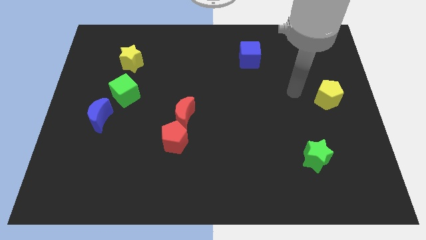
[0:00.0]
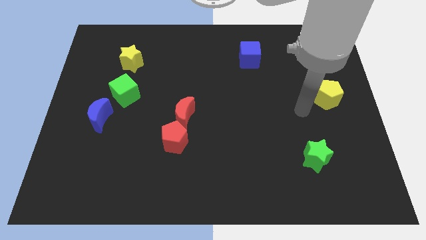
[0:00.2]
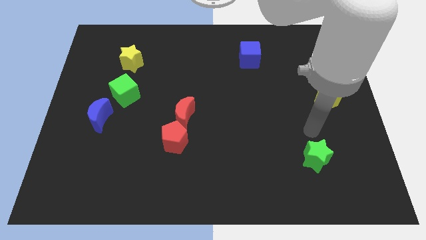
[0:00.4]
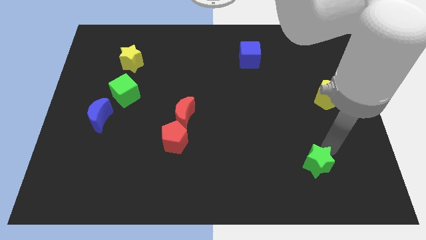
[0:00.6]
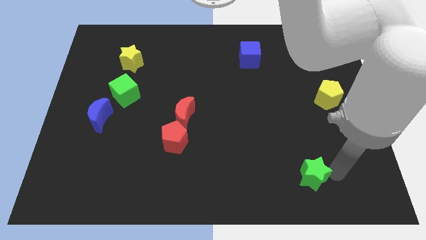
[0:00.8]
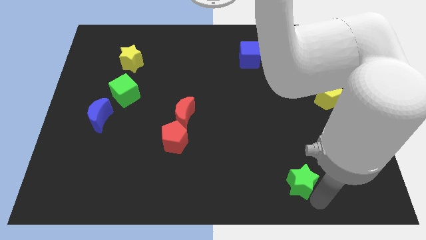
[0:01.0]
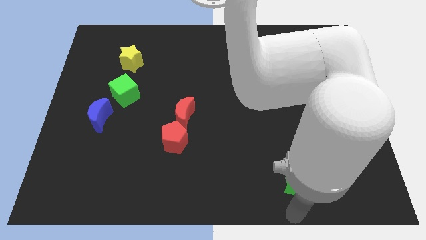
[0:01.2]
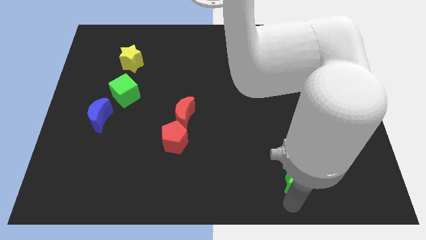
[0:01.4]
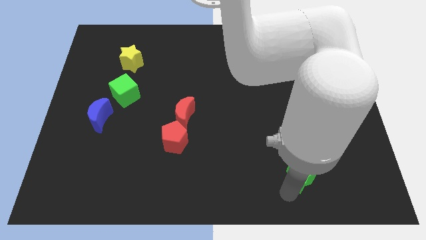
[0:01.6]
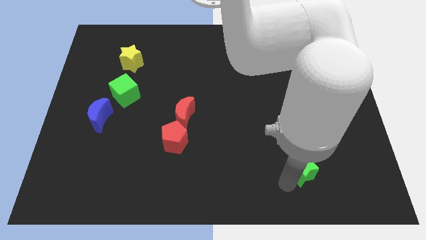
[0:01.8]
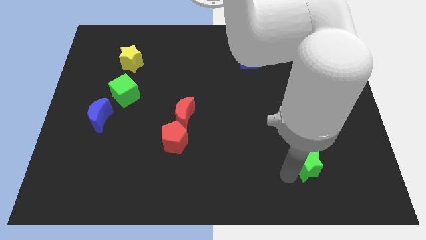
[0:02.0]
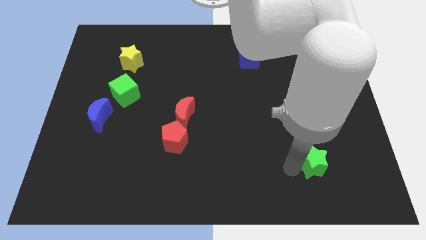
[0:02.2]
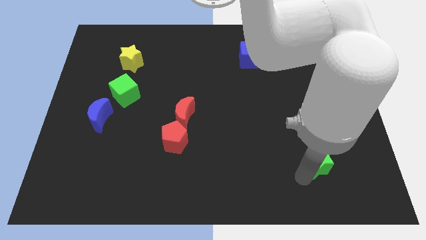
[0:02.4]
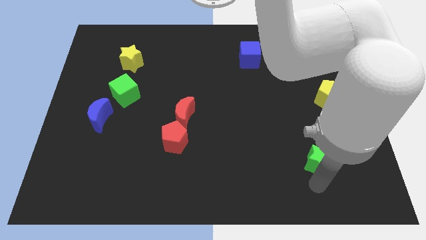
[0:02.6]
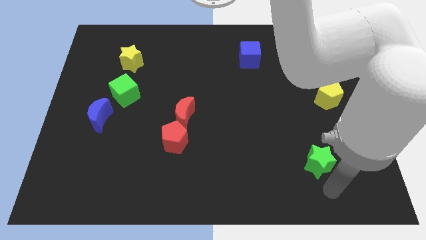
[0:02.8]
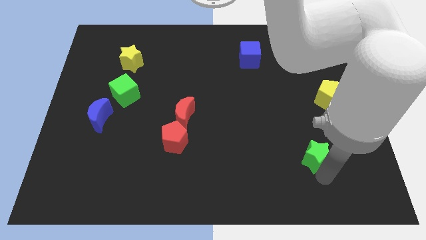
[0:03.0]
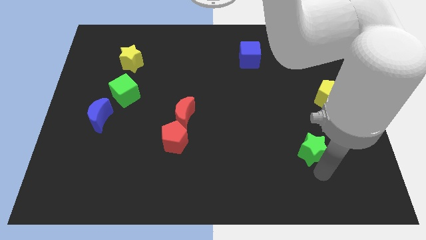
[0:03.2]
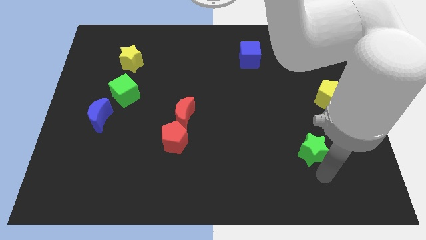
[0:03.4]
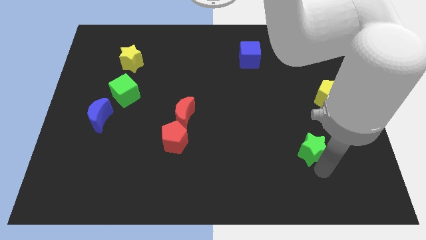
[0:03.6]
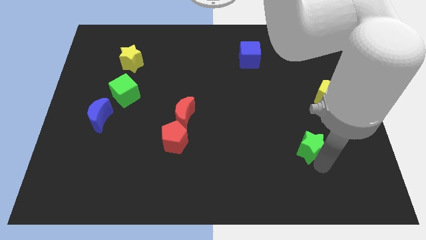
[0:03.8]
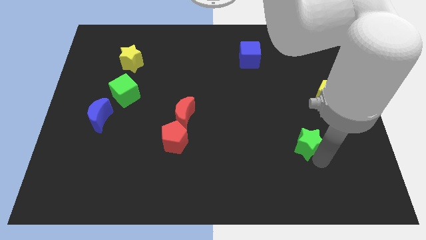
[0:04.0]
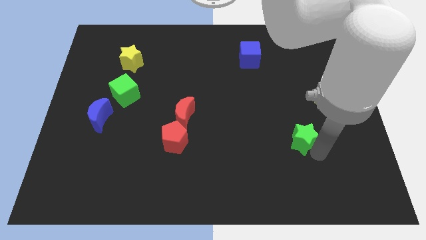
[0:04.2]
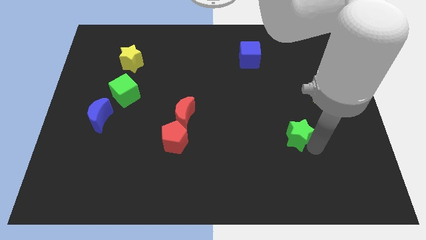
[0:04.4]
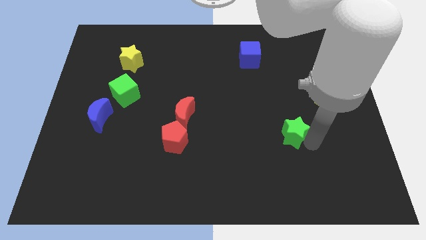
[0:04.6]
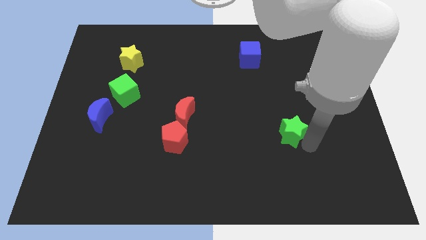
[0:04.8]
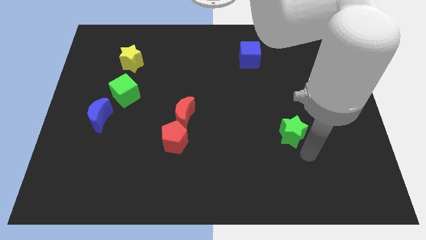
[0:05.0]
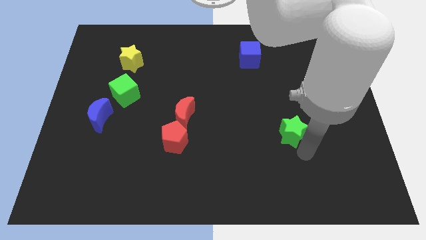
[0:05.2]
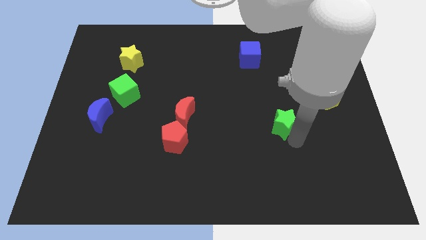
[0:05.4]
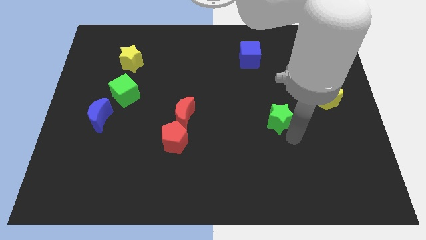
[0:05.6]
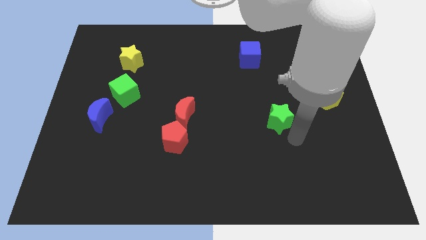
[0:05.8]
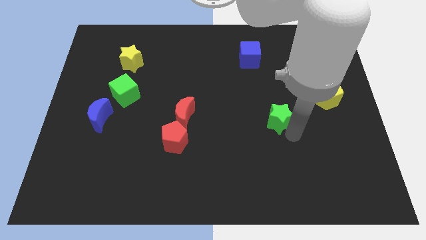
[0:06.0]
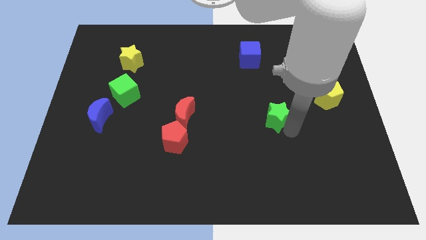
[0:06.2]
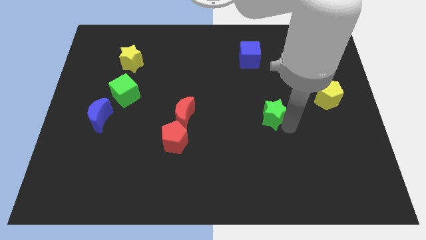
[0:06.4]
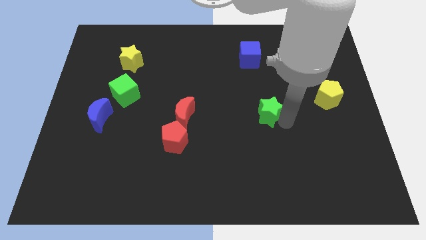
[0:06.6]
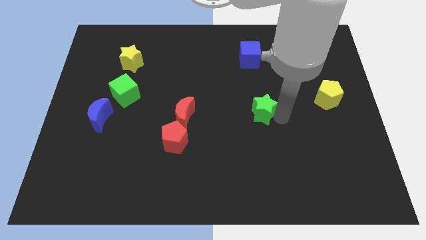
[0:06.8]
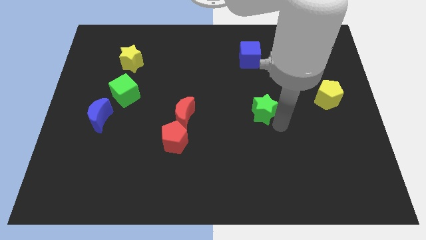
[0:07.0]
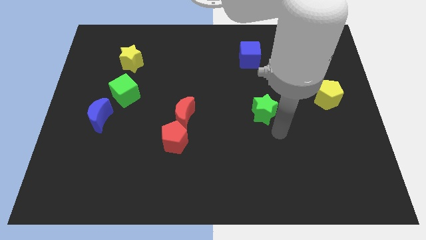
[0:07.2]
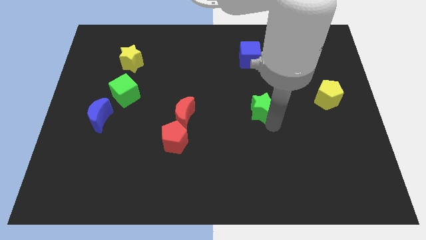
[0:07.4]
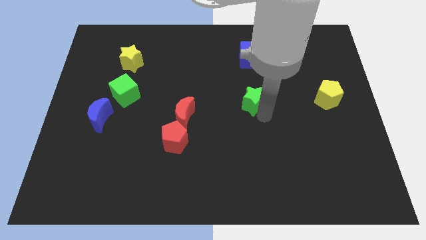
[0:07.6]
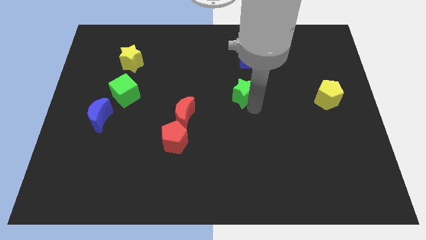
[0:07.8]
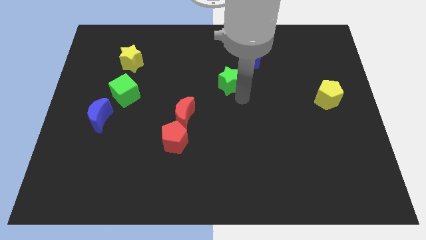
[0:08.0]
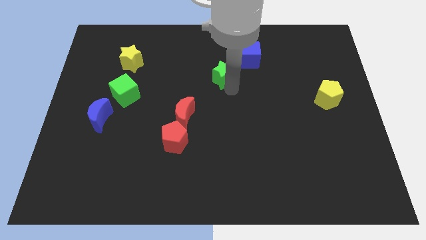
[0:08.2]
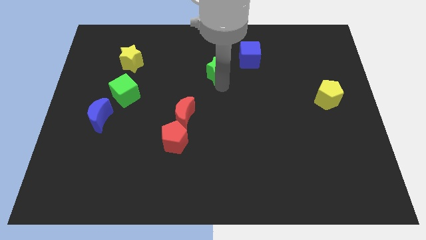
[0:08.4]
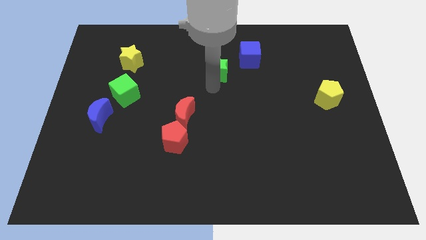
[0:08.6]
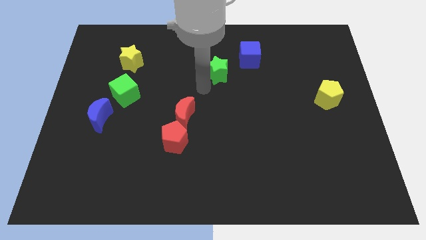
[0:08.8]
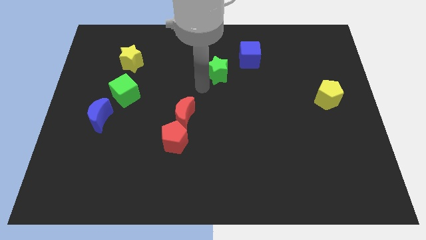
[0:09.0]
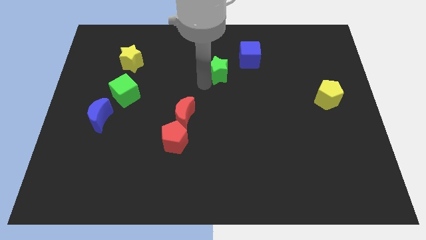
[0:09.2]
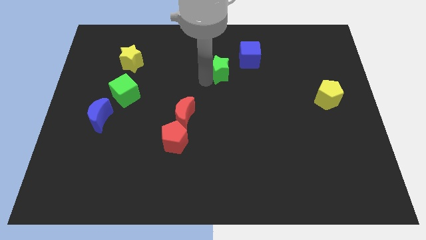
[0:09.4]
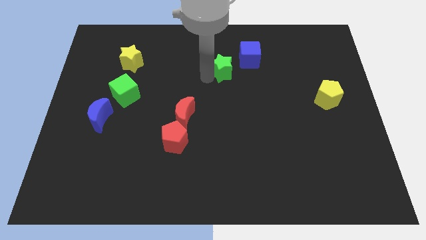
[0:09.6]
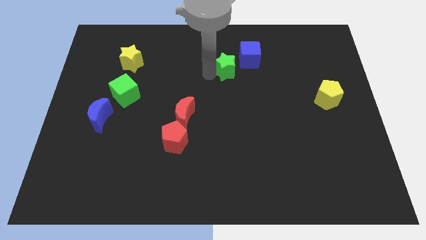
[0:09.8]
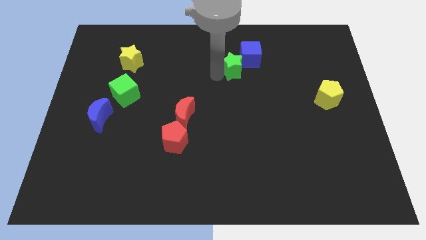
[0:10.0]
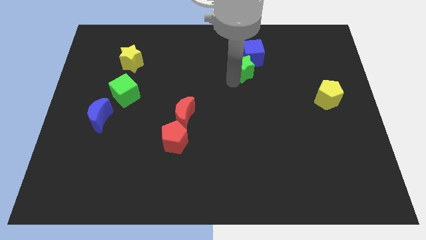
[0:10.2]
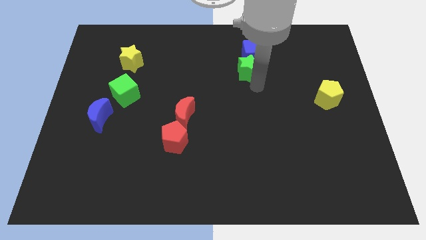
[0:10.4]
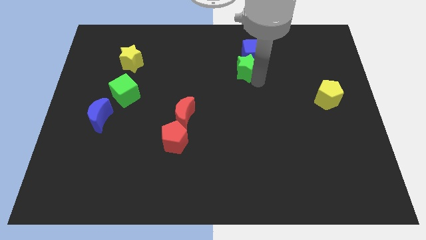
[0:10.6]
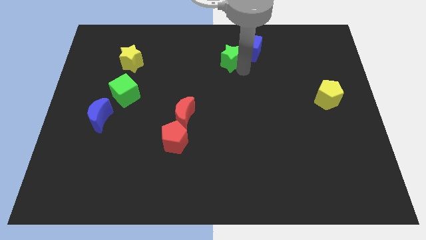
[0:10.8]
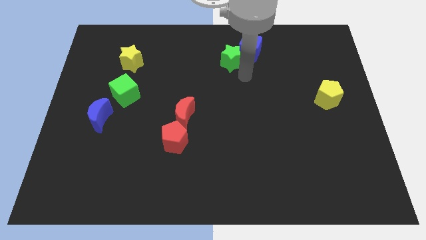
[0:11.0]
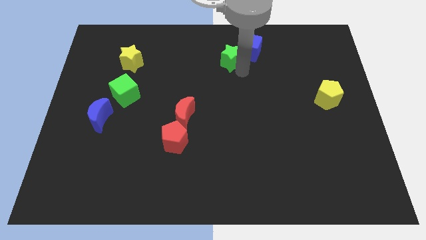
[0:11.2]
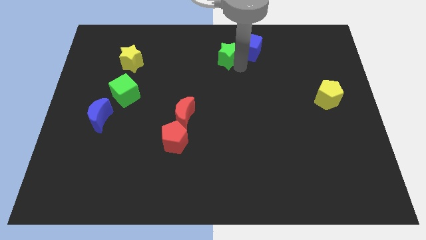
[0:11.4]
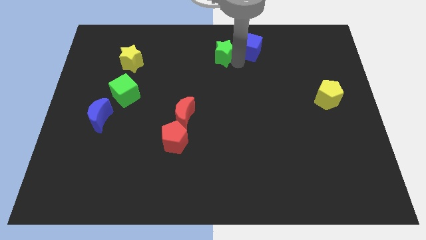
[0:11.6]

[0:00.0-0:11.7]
move the green star to the top

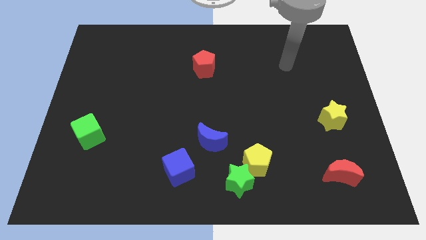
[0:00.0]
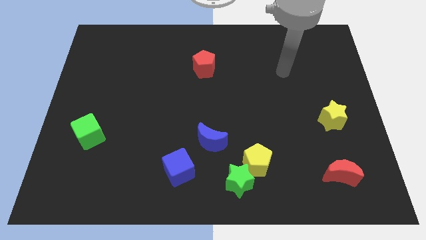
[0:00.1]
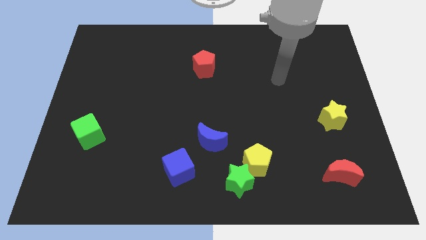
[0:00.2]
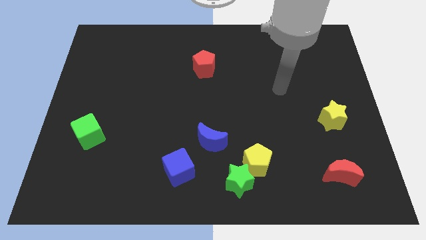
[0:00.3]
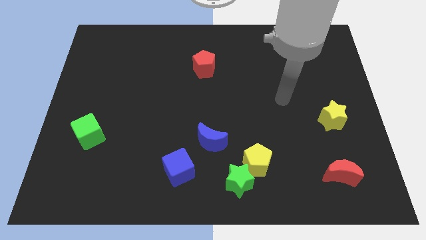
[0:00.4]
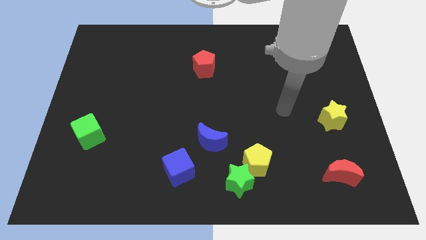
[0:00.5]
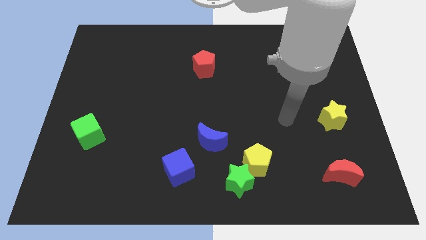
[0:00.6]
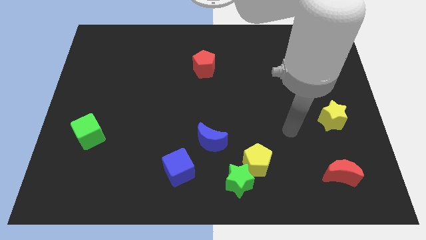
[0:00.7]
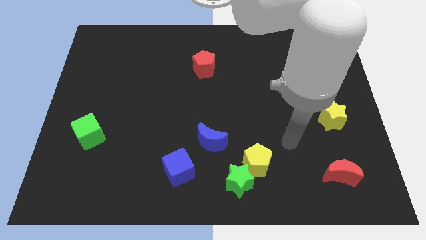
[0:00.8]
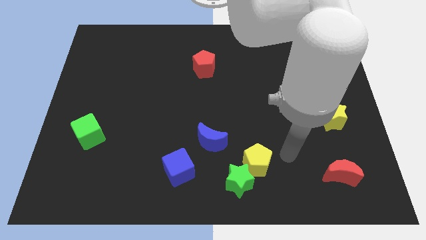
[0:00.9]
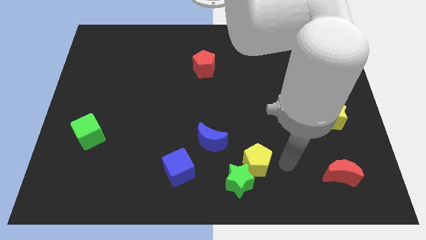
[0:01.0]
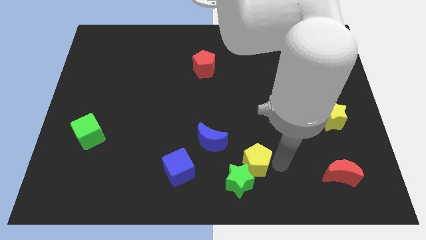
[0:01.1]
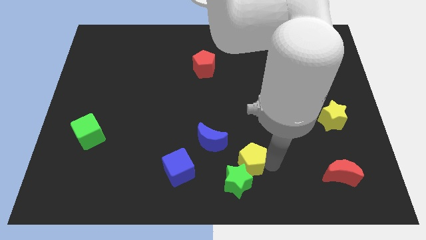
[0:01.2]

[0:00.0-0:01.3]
move the yellow pentagon to the bottom
